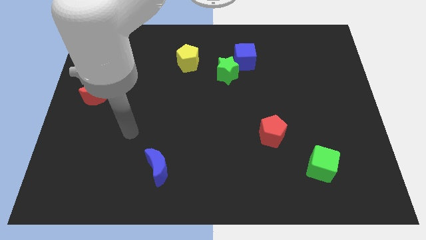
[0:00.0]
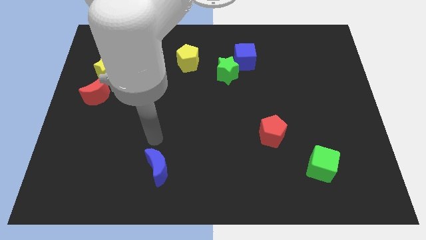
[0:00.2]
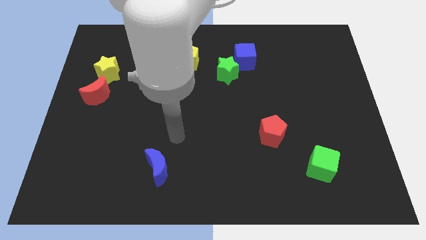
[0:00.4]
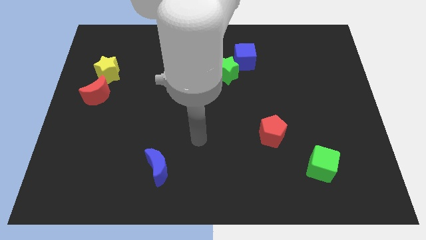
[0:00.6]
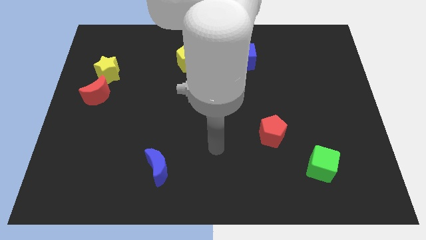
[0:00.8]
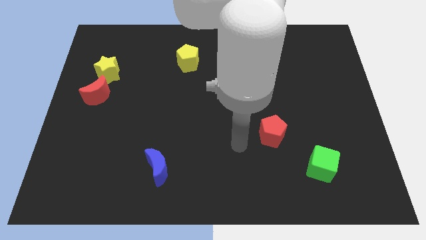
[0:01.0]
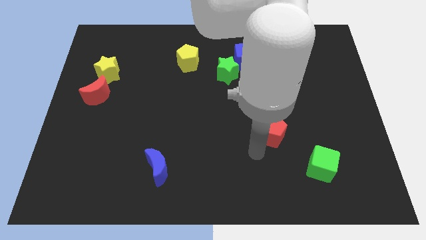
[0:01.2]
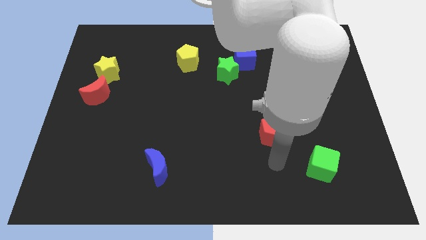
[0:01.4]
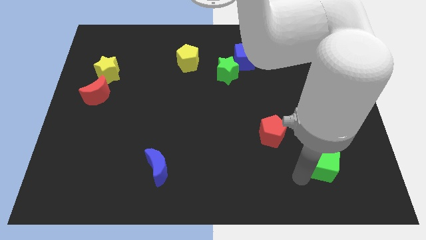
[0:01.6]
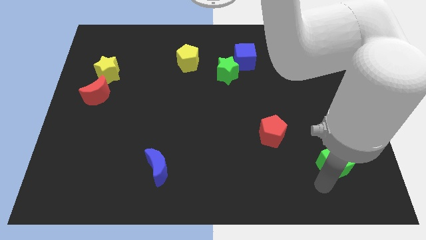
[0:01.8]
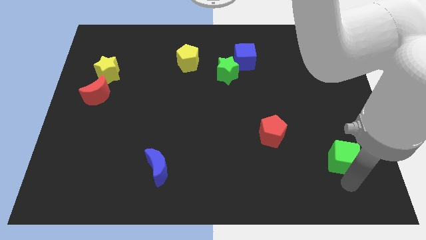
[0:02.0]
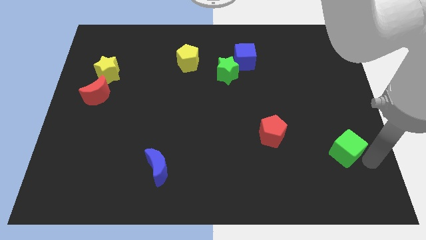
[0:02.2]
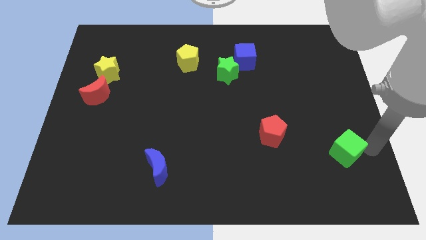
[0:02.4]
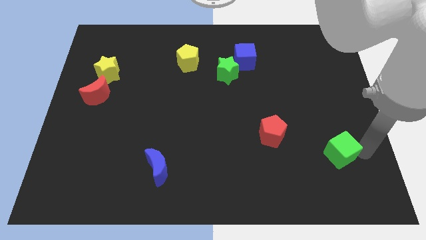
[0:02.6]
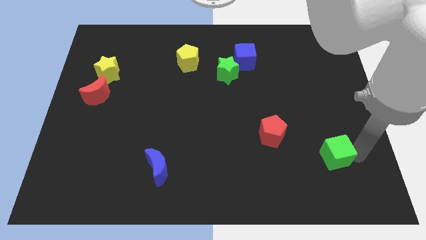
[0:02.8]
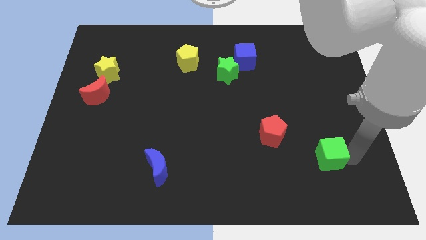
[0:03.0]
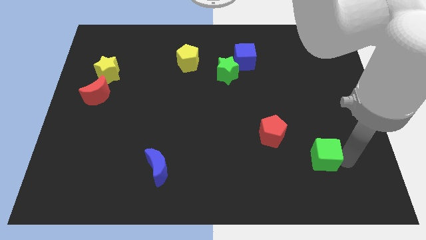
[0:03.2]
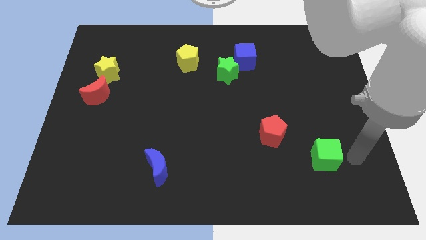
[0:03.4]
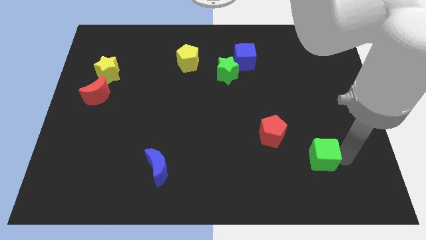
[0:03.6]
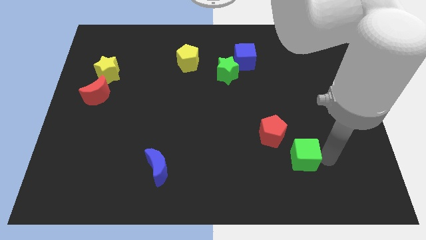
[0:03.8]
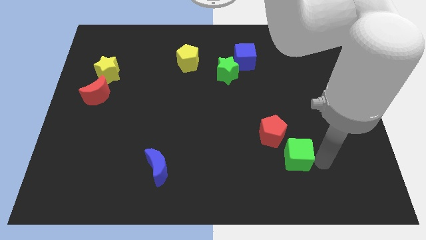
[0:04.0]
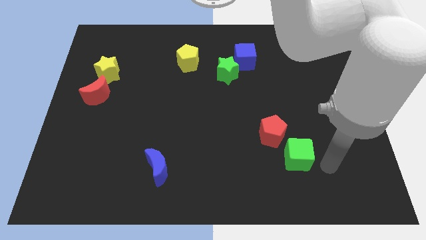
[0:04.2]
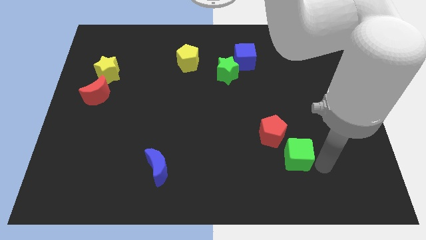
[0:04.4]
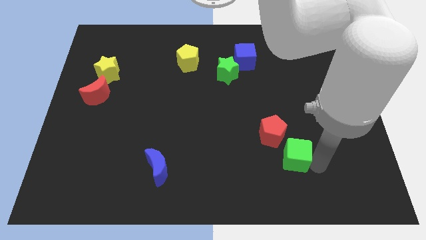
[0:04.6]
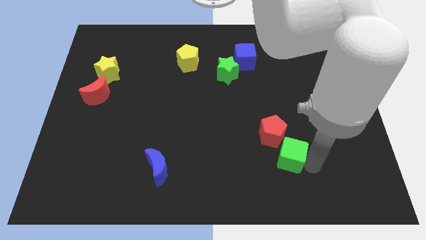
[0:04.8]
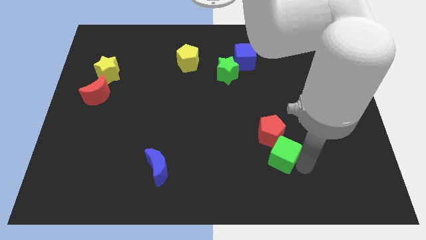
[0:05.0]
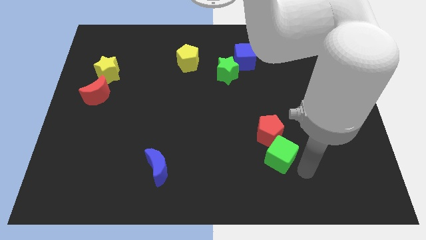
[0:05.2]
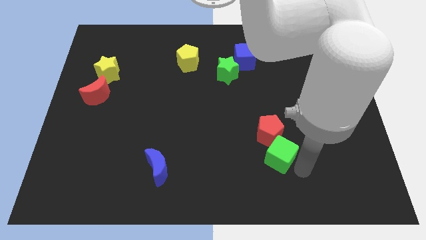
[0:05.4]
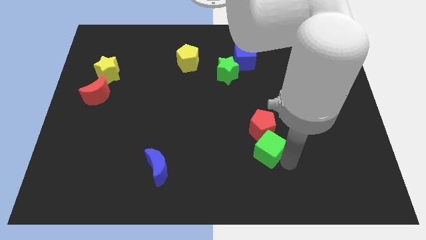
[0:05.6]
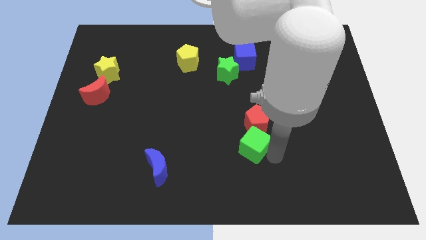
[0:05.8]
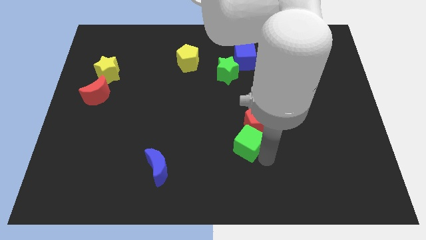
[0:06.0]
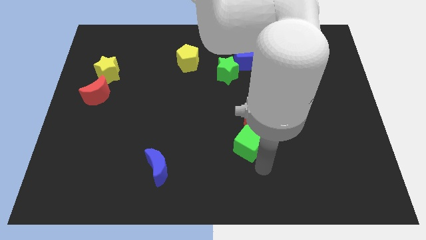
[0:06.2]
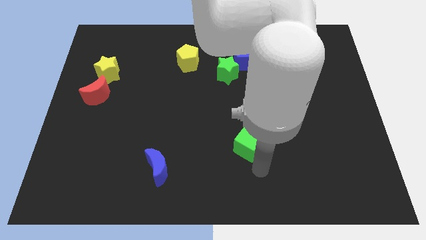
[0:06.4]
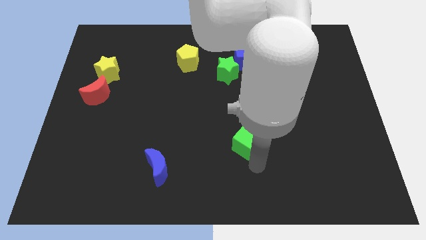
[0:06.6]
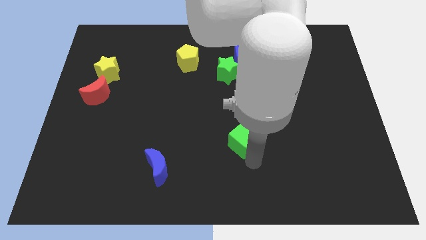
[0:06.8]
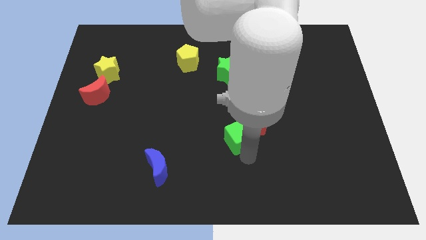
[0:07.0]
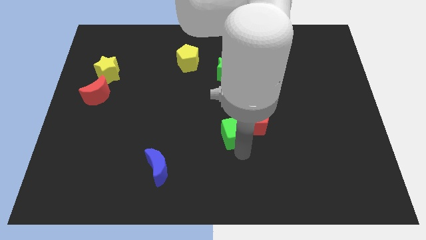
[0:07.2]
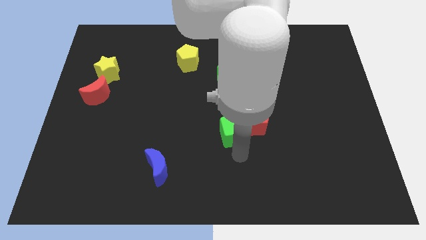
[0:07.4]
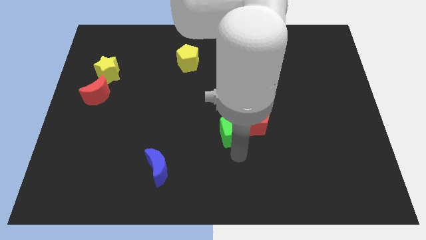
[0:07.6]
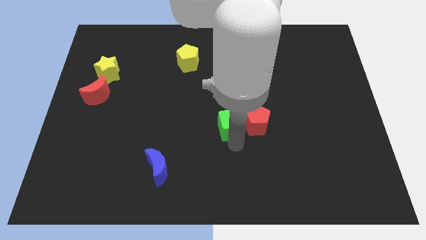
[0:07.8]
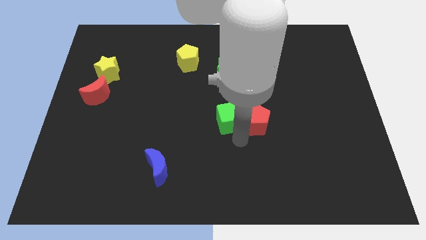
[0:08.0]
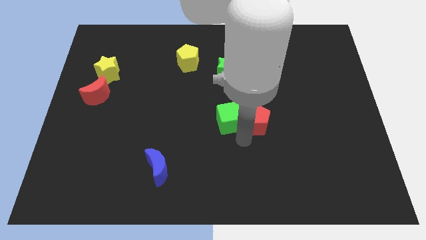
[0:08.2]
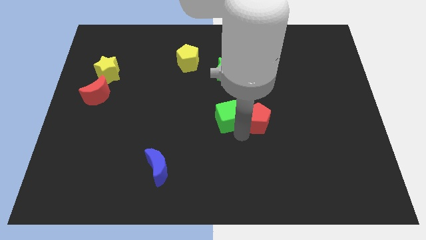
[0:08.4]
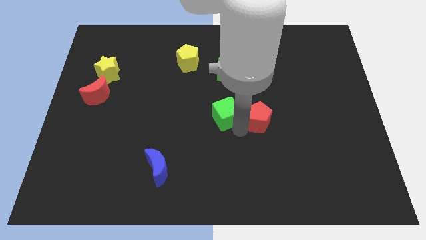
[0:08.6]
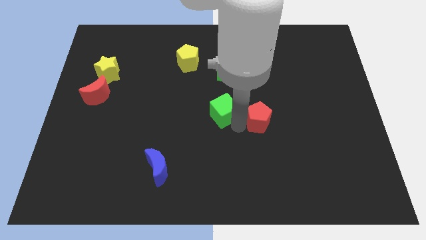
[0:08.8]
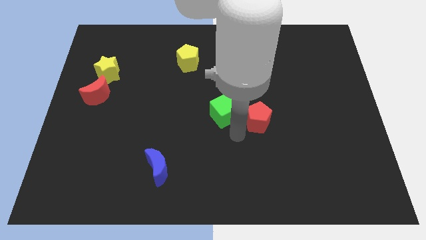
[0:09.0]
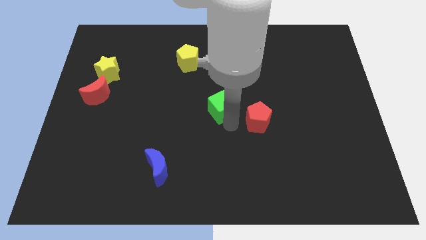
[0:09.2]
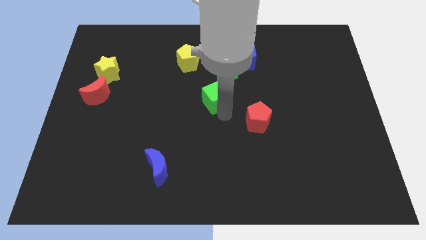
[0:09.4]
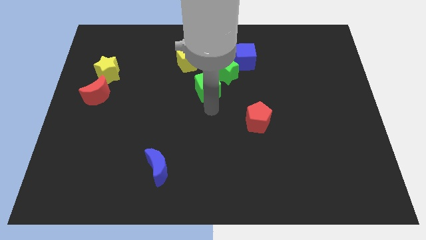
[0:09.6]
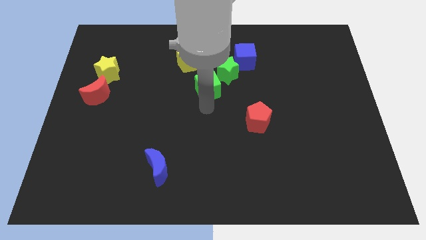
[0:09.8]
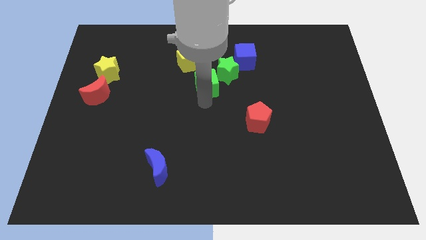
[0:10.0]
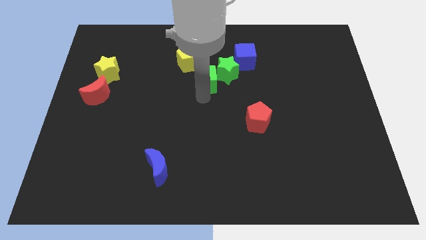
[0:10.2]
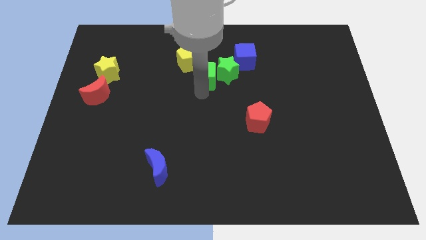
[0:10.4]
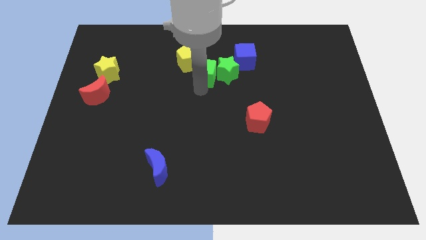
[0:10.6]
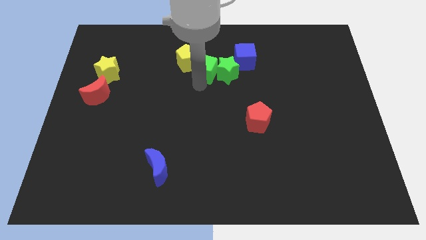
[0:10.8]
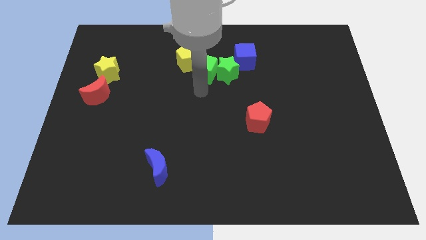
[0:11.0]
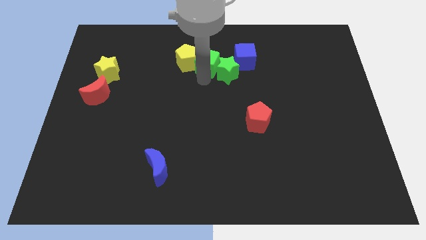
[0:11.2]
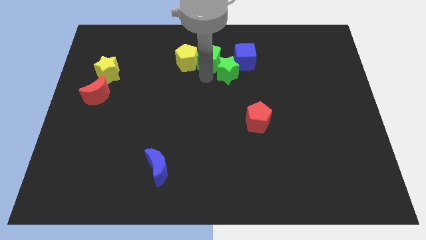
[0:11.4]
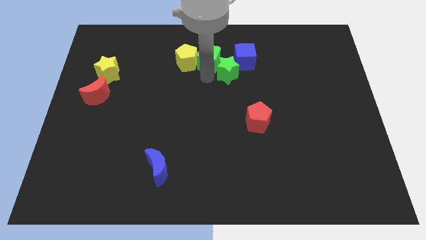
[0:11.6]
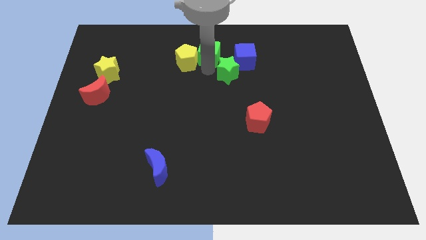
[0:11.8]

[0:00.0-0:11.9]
move the green cube to the towards your base
